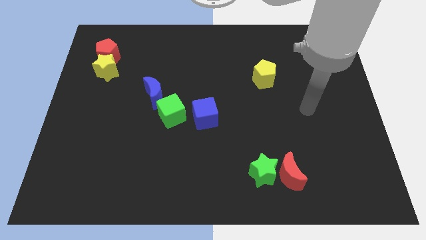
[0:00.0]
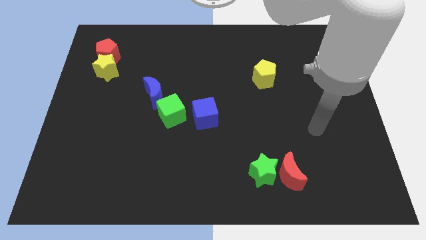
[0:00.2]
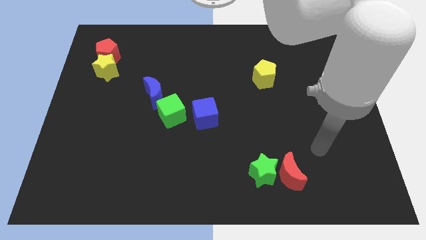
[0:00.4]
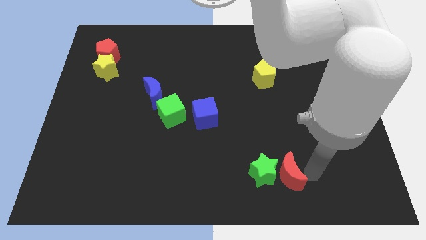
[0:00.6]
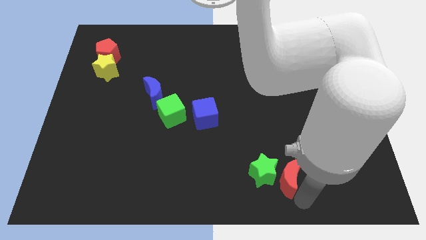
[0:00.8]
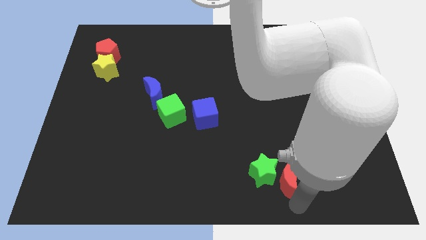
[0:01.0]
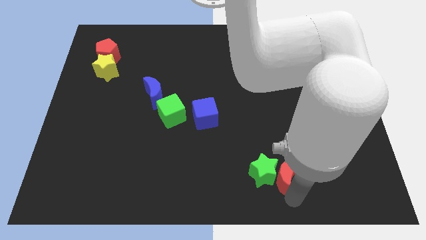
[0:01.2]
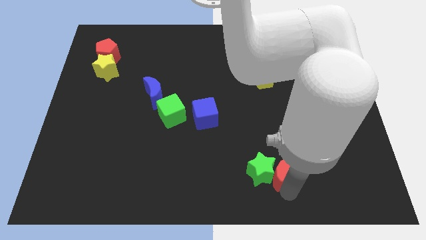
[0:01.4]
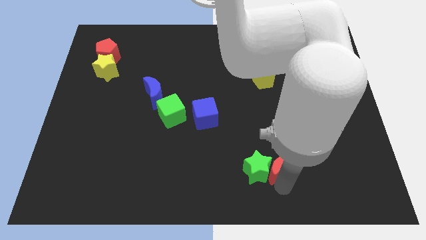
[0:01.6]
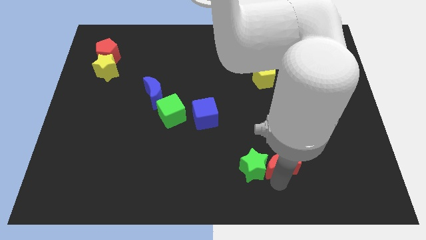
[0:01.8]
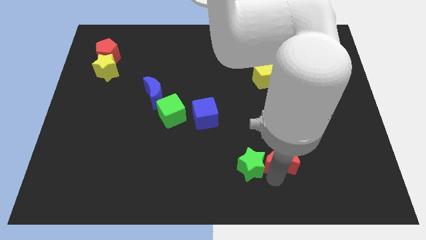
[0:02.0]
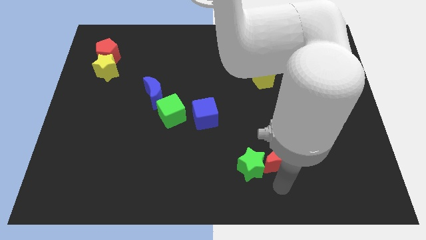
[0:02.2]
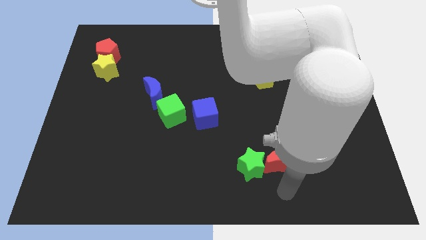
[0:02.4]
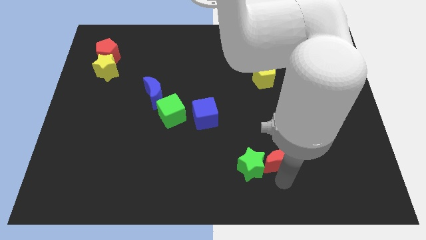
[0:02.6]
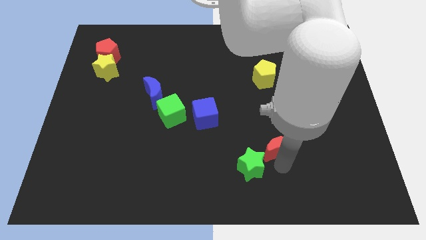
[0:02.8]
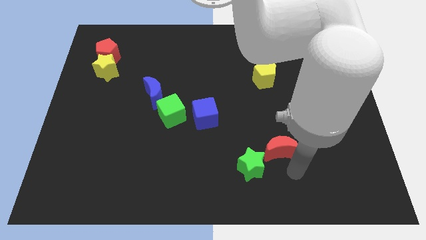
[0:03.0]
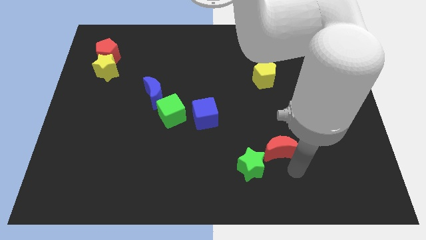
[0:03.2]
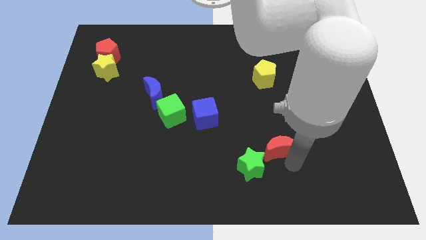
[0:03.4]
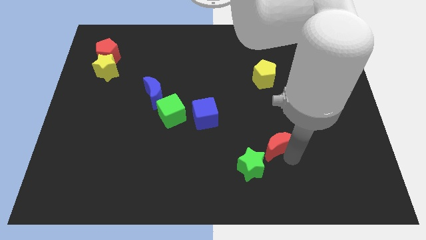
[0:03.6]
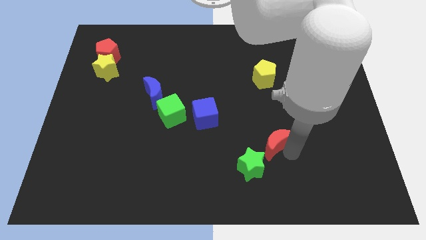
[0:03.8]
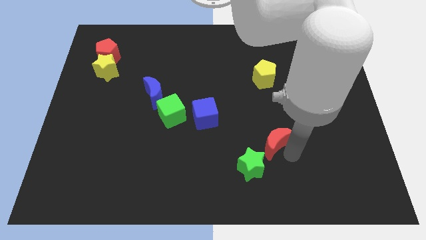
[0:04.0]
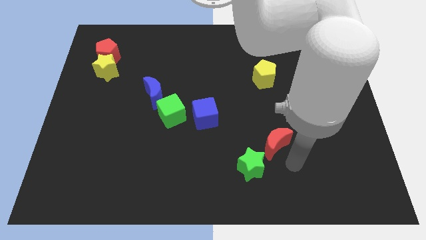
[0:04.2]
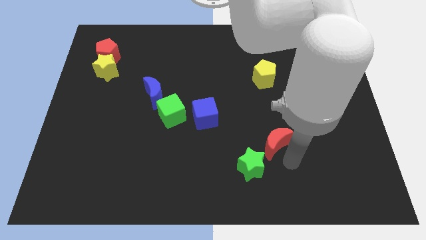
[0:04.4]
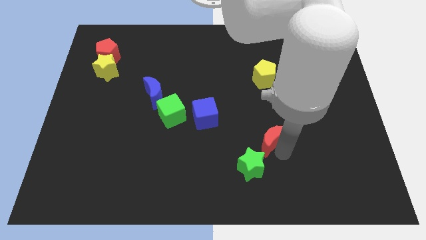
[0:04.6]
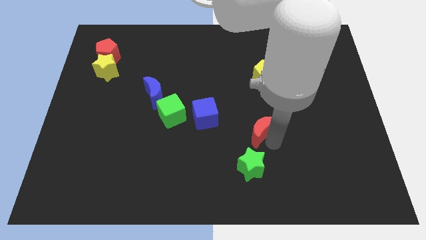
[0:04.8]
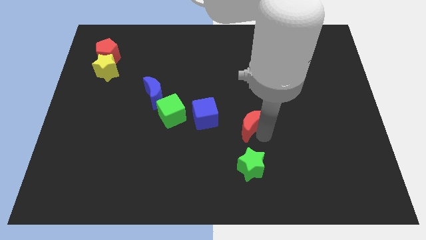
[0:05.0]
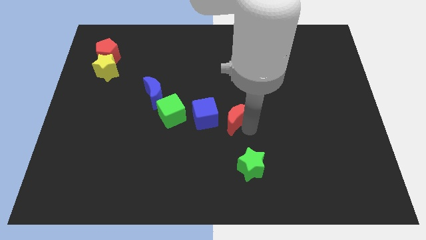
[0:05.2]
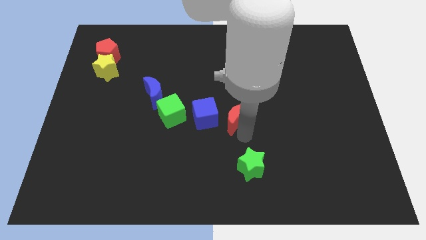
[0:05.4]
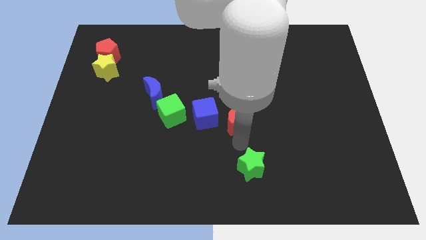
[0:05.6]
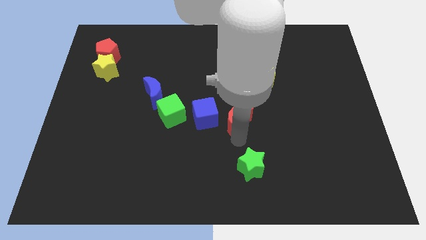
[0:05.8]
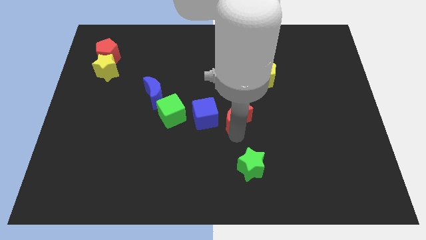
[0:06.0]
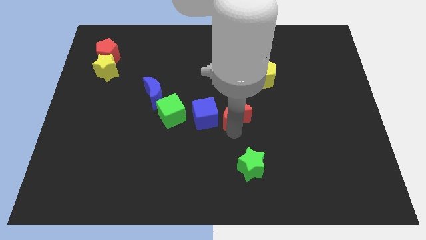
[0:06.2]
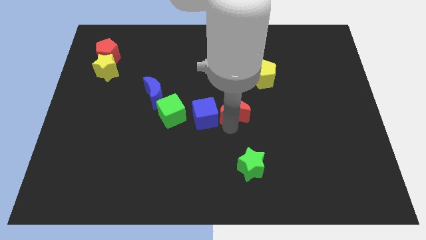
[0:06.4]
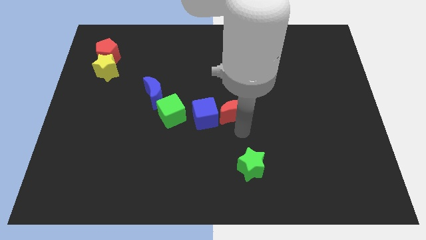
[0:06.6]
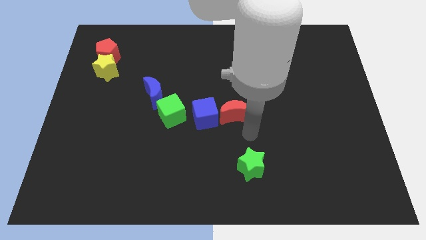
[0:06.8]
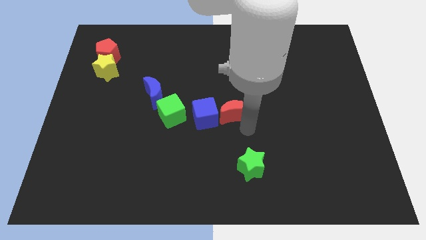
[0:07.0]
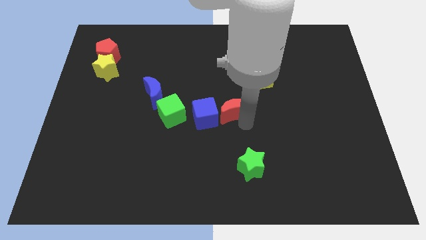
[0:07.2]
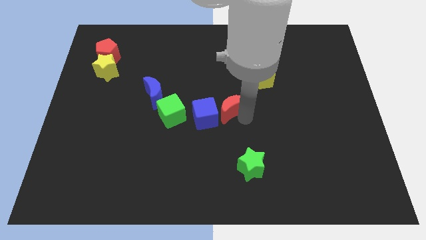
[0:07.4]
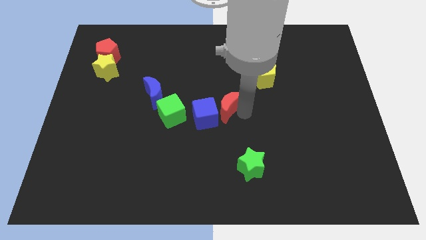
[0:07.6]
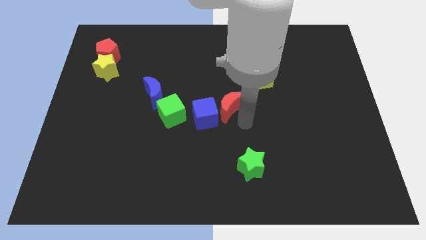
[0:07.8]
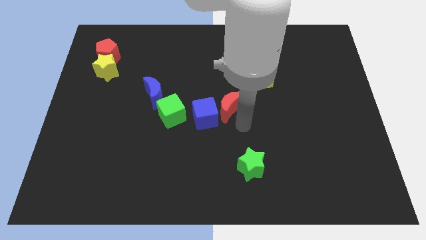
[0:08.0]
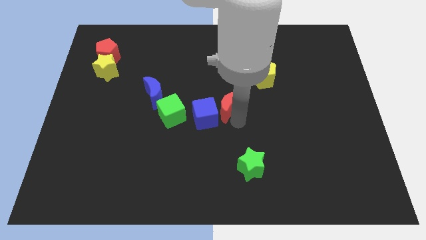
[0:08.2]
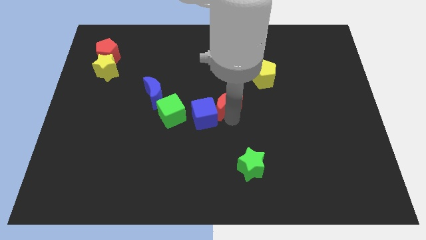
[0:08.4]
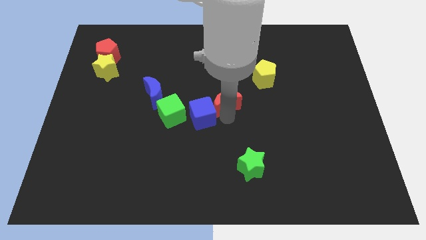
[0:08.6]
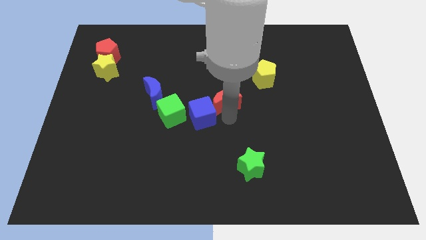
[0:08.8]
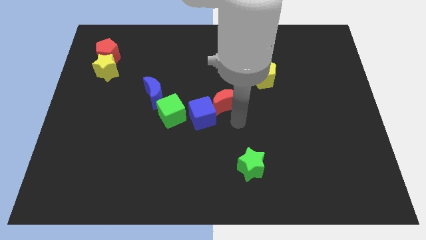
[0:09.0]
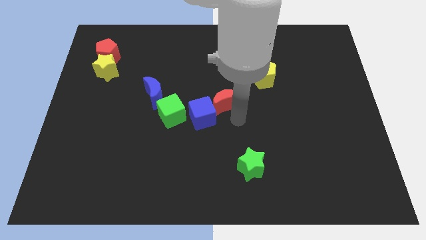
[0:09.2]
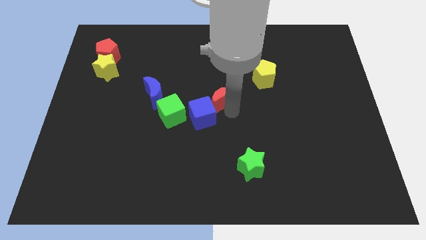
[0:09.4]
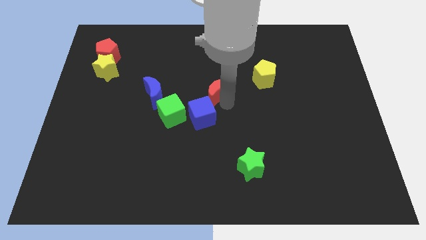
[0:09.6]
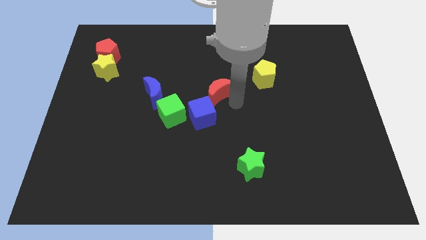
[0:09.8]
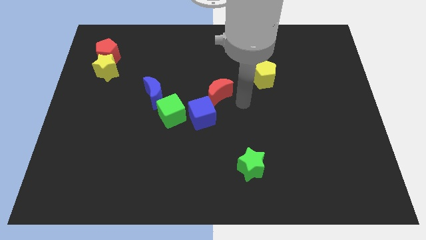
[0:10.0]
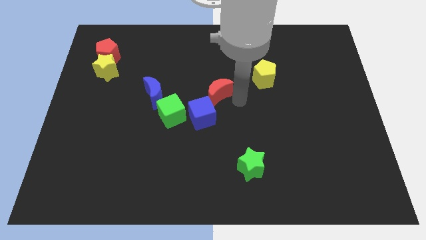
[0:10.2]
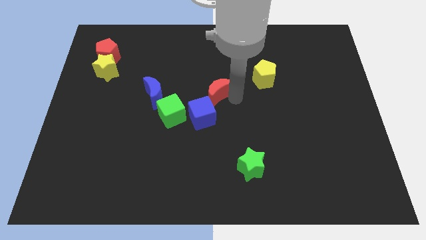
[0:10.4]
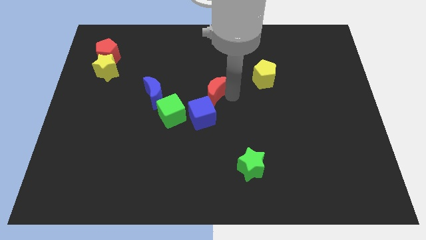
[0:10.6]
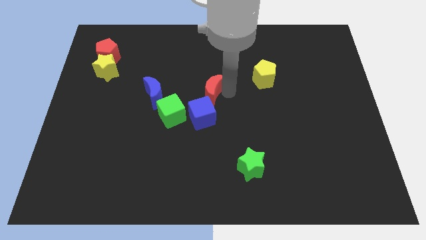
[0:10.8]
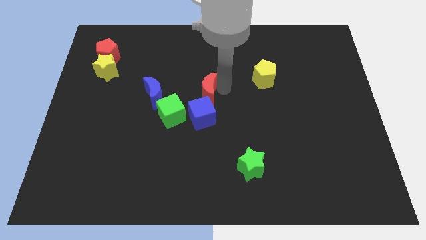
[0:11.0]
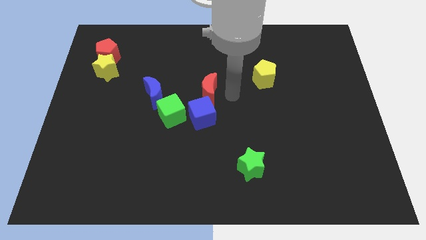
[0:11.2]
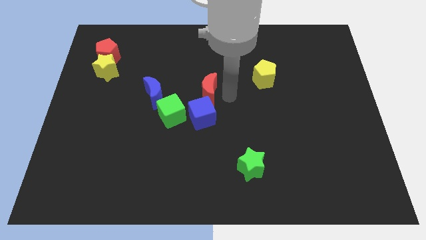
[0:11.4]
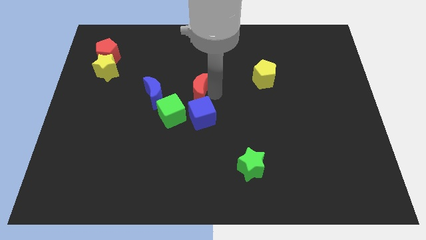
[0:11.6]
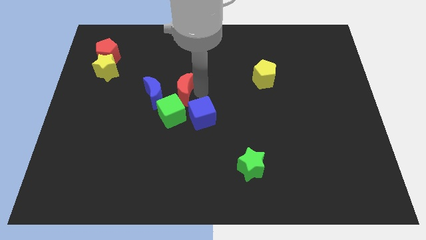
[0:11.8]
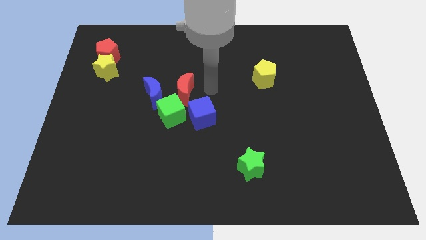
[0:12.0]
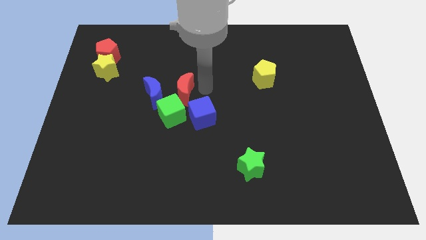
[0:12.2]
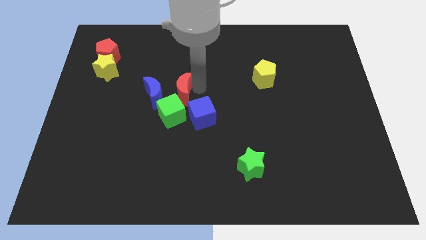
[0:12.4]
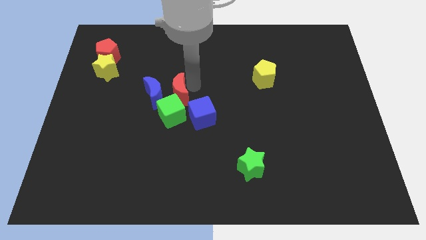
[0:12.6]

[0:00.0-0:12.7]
put the red moon towards the blue moon

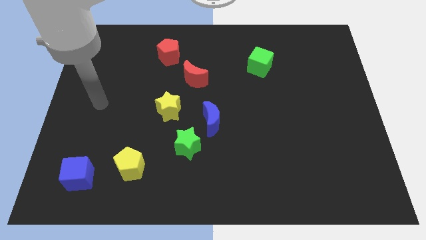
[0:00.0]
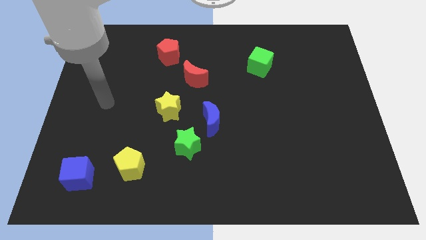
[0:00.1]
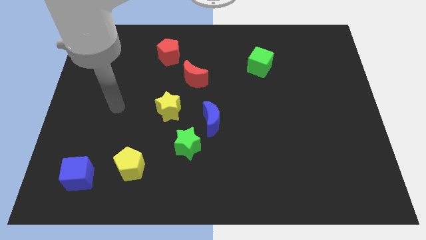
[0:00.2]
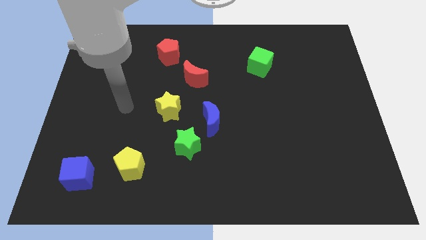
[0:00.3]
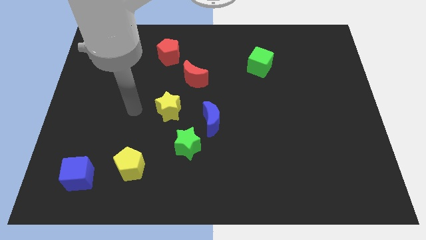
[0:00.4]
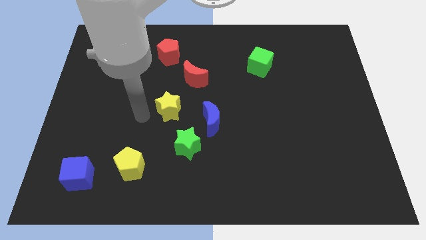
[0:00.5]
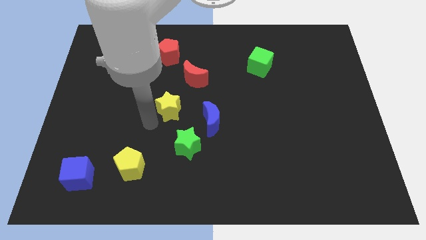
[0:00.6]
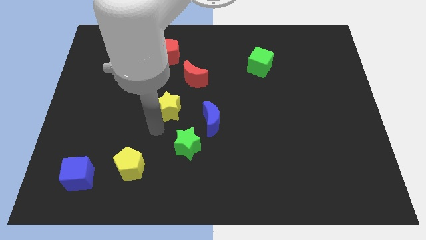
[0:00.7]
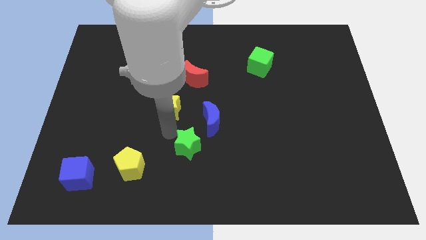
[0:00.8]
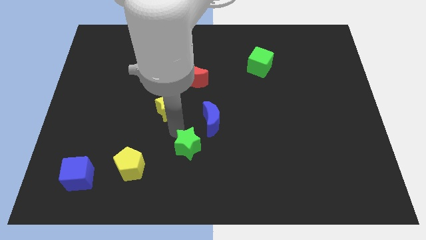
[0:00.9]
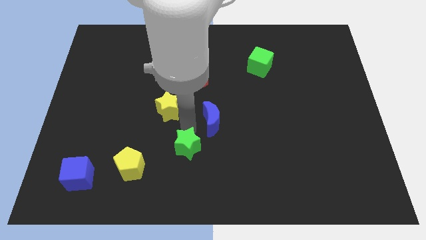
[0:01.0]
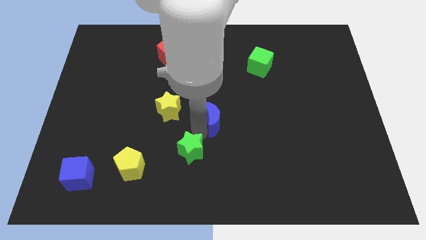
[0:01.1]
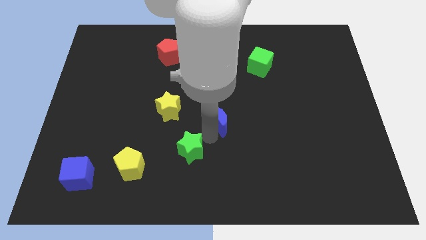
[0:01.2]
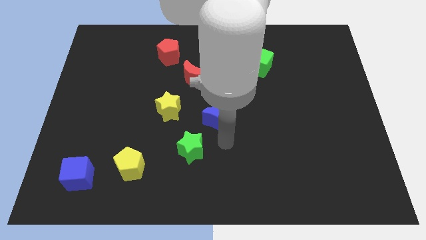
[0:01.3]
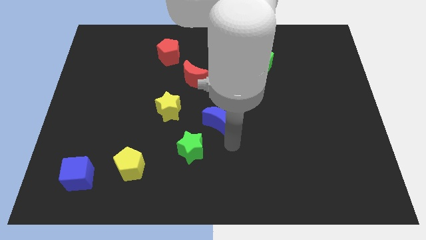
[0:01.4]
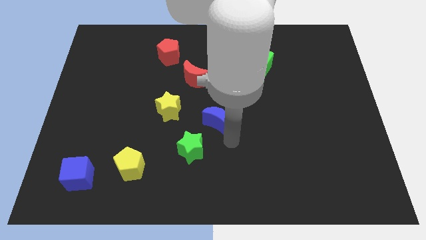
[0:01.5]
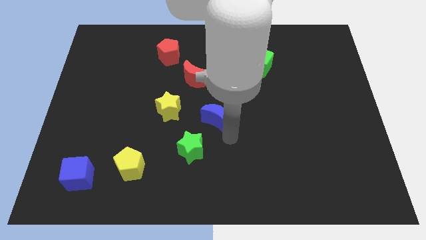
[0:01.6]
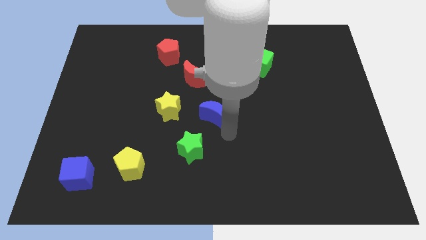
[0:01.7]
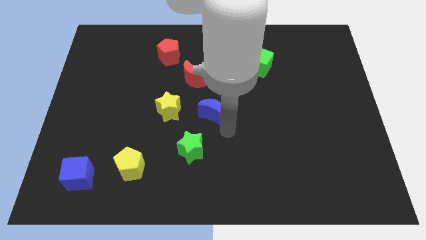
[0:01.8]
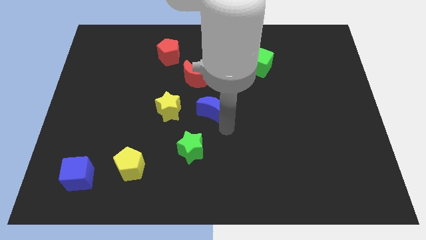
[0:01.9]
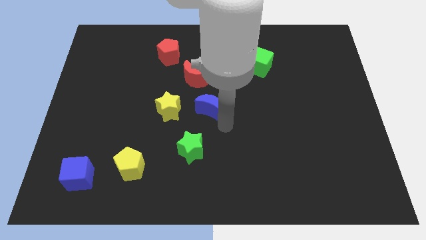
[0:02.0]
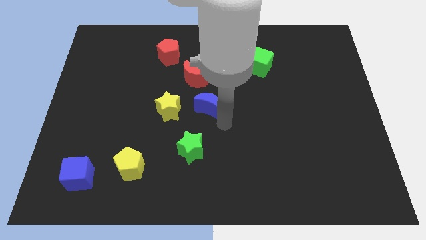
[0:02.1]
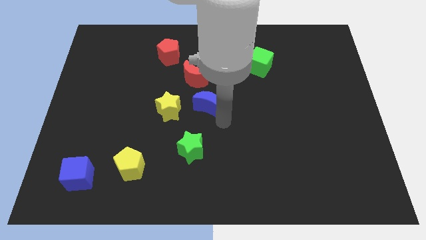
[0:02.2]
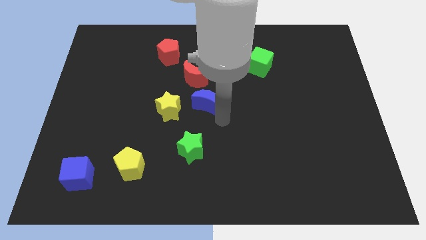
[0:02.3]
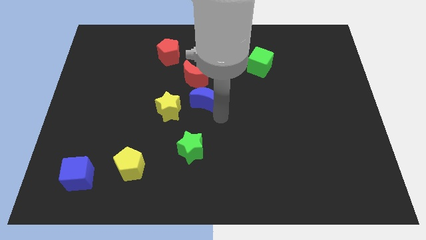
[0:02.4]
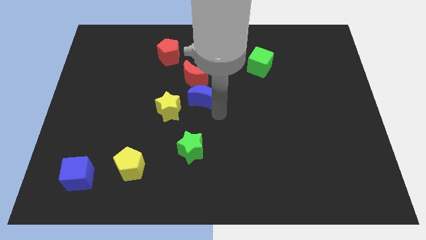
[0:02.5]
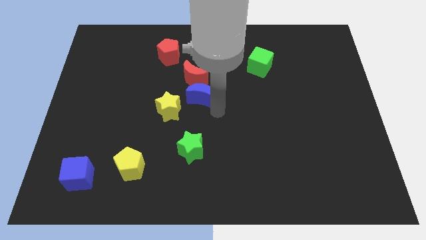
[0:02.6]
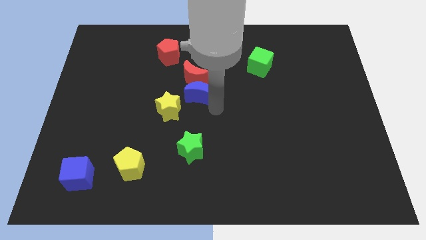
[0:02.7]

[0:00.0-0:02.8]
put the blue moon towards the red moon
